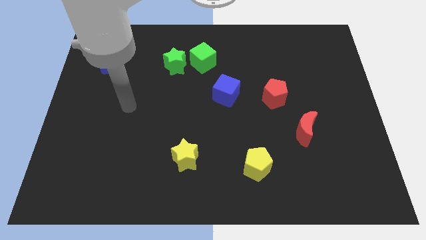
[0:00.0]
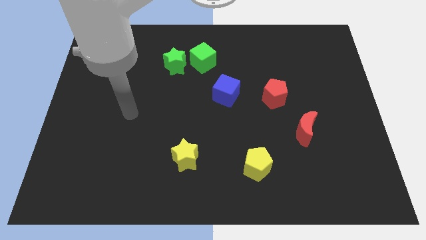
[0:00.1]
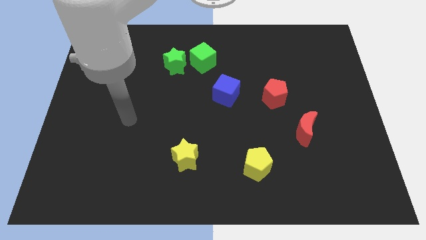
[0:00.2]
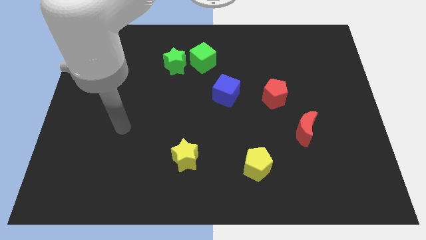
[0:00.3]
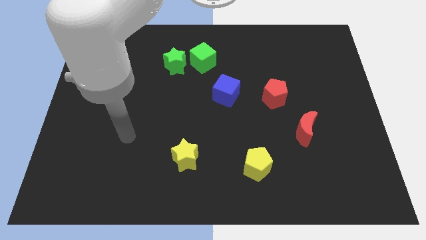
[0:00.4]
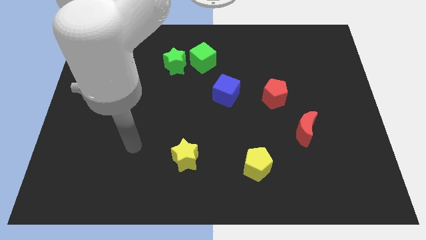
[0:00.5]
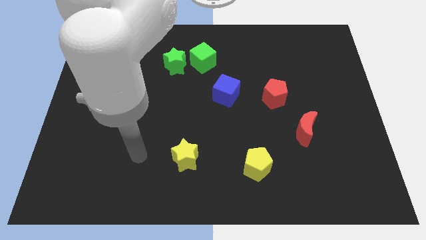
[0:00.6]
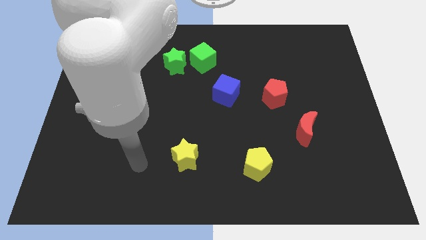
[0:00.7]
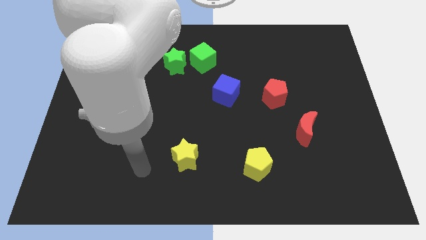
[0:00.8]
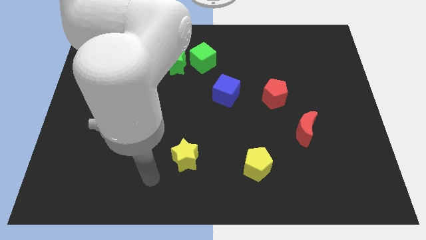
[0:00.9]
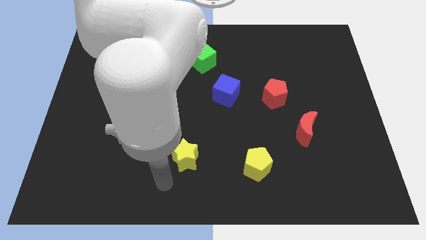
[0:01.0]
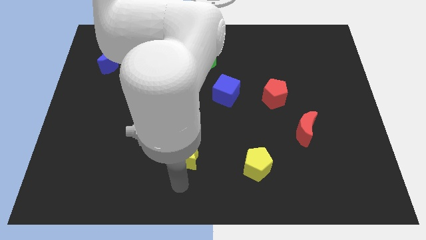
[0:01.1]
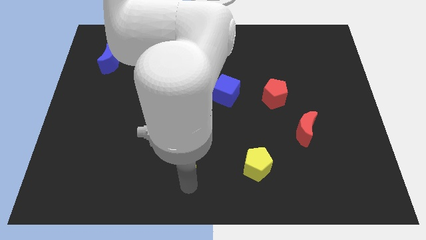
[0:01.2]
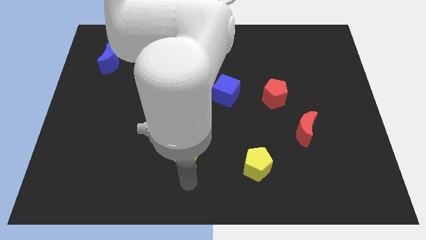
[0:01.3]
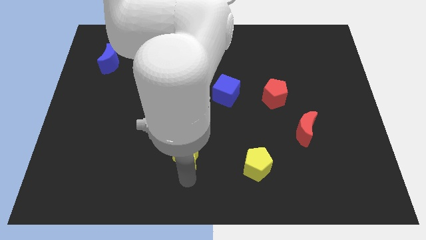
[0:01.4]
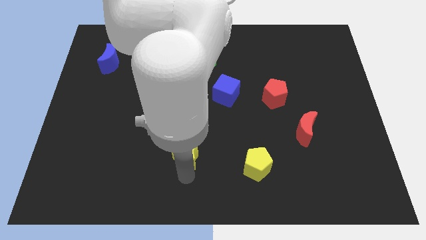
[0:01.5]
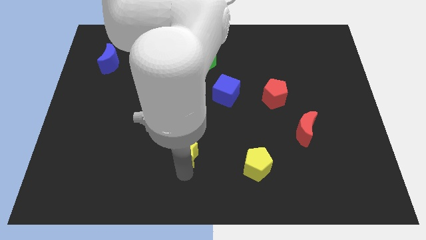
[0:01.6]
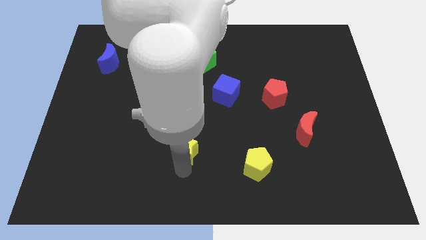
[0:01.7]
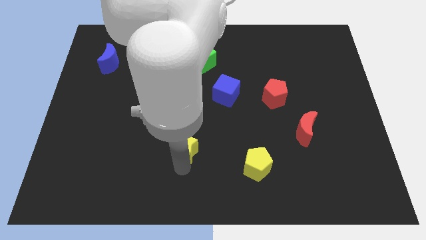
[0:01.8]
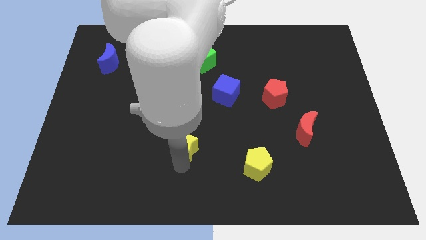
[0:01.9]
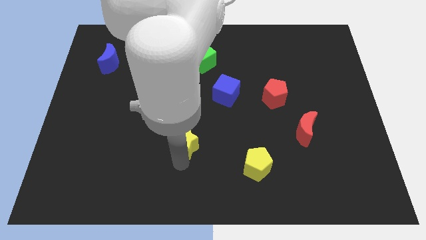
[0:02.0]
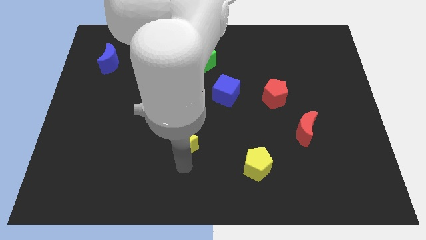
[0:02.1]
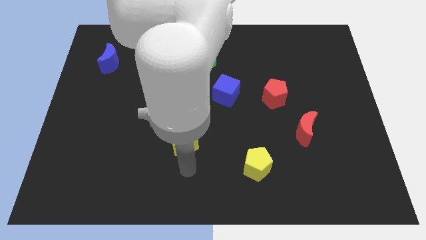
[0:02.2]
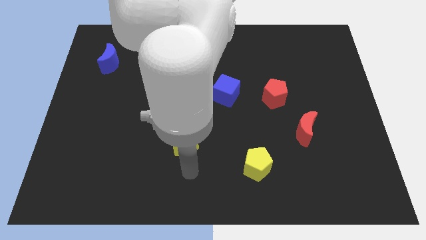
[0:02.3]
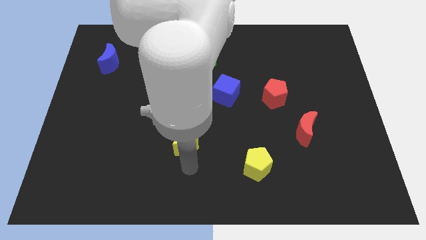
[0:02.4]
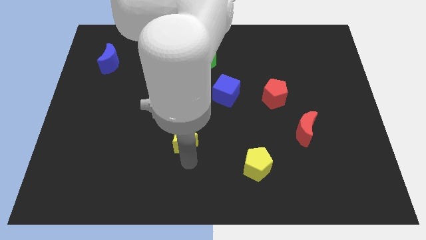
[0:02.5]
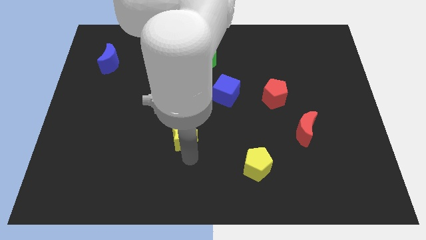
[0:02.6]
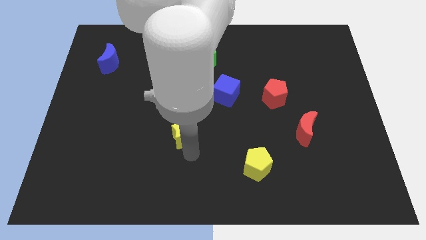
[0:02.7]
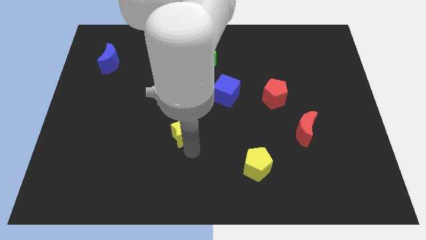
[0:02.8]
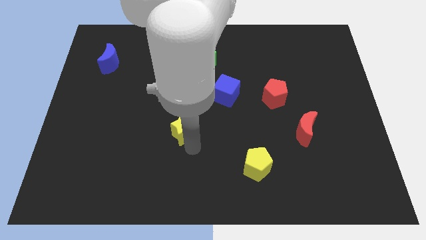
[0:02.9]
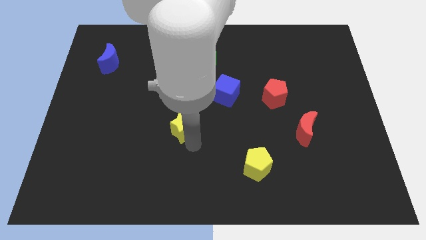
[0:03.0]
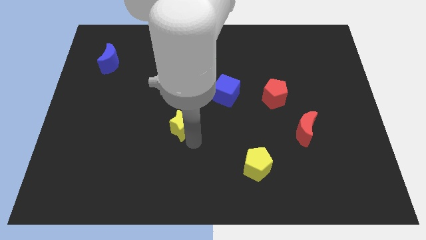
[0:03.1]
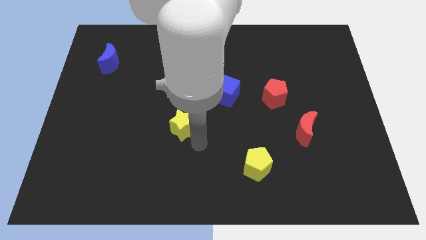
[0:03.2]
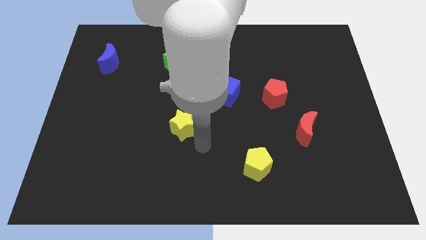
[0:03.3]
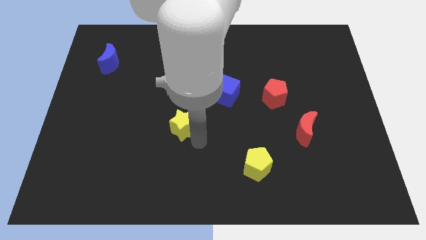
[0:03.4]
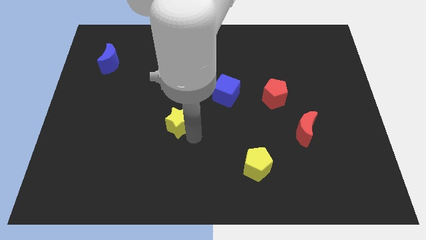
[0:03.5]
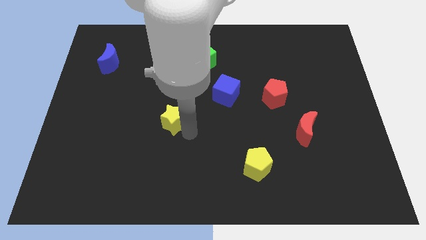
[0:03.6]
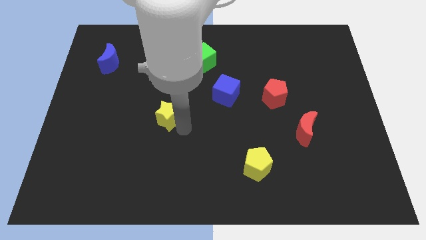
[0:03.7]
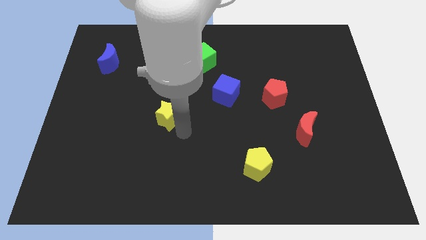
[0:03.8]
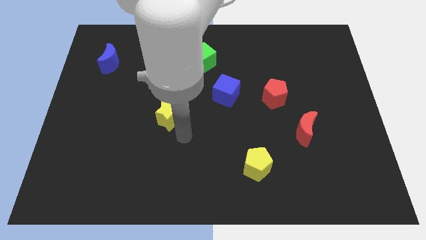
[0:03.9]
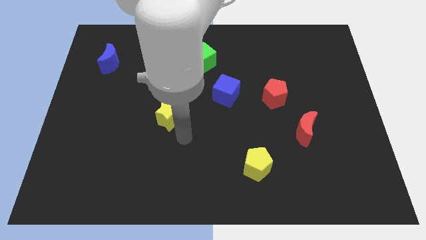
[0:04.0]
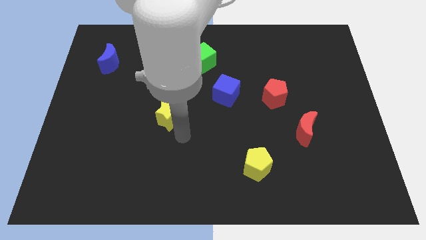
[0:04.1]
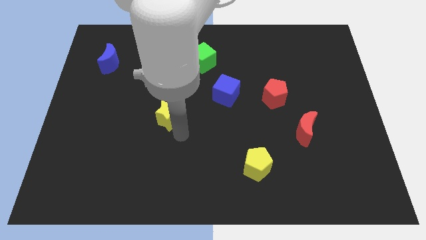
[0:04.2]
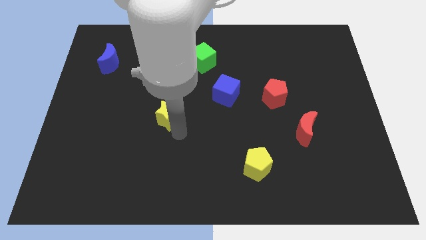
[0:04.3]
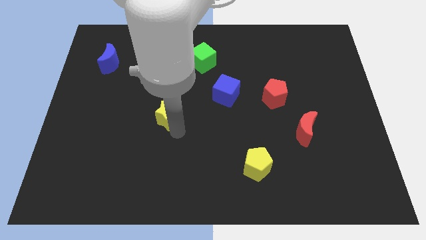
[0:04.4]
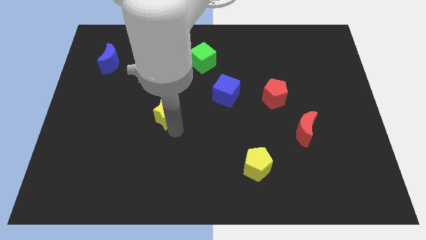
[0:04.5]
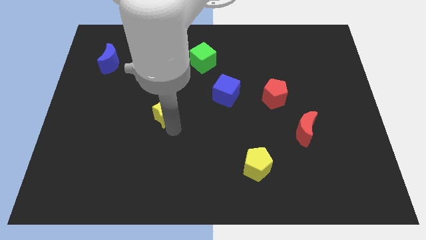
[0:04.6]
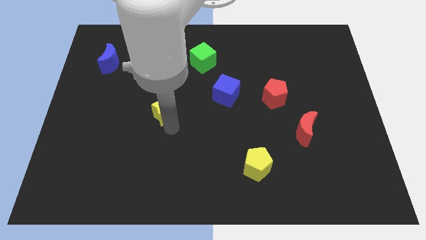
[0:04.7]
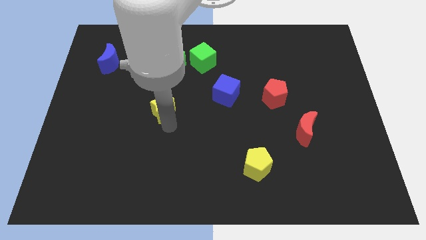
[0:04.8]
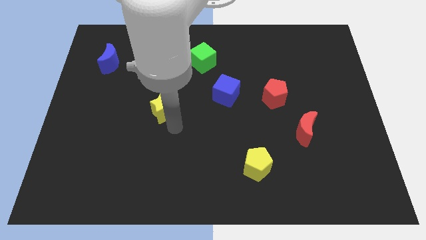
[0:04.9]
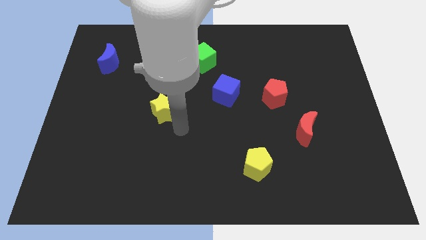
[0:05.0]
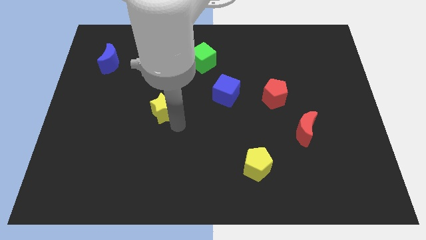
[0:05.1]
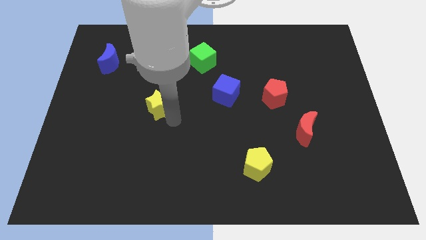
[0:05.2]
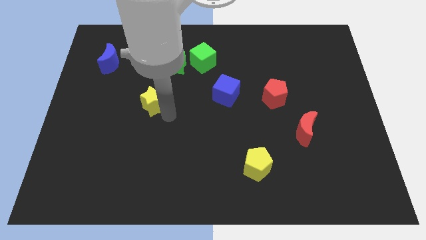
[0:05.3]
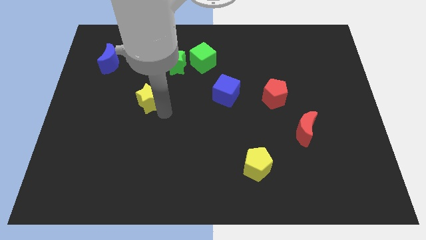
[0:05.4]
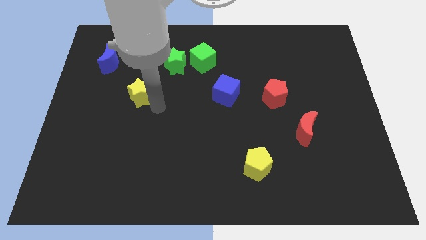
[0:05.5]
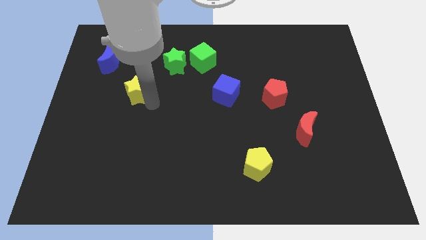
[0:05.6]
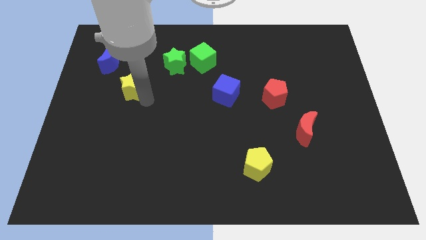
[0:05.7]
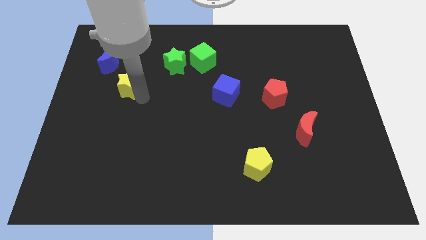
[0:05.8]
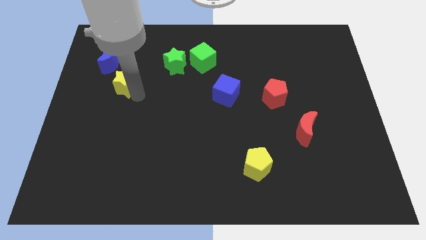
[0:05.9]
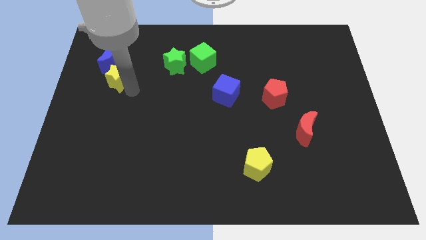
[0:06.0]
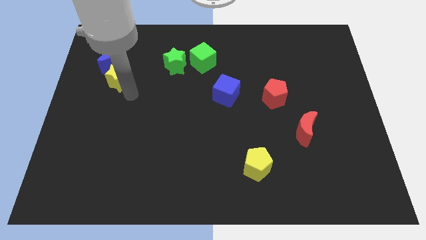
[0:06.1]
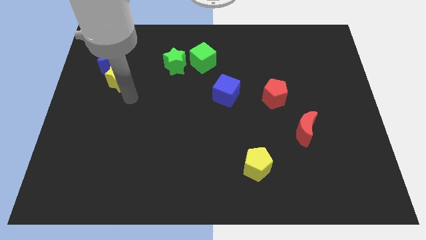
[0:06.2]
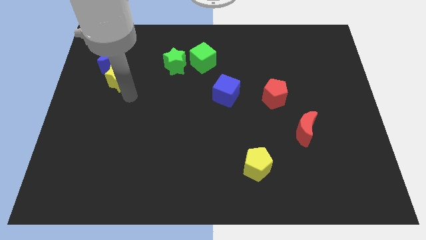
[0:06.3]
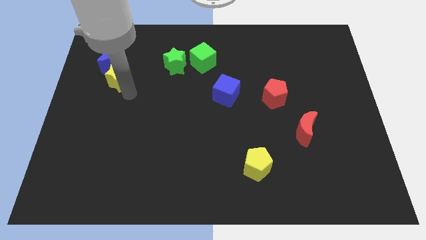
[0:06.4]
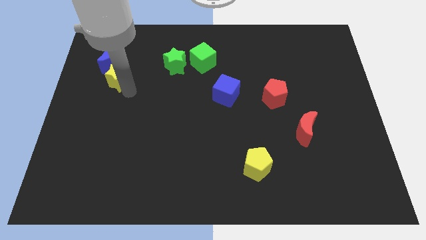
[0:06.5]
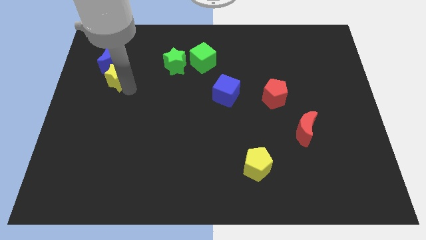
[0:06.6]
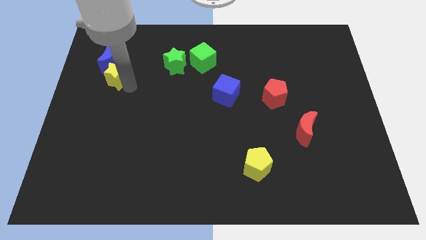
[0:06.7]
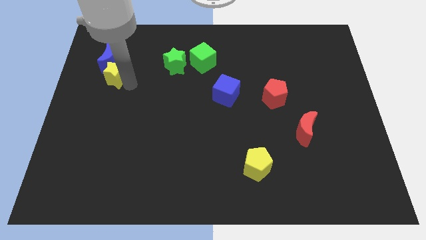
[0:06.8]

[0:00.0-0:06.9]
put the yellow star next to the blue moon
